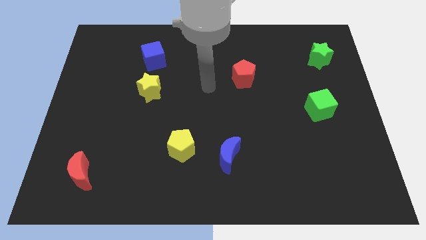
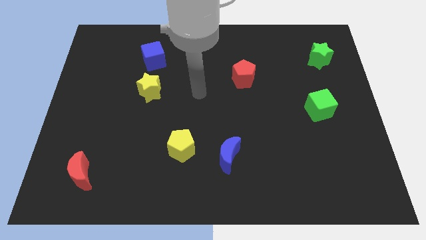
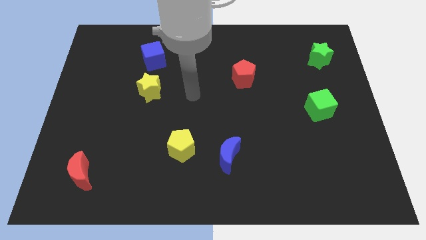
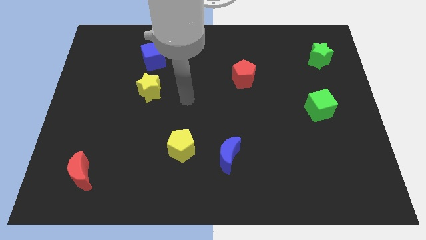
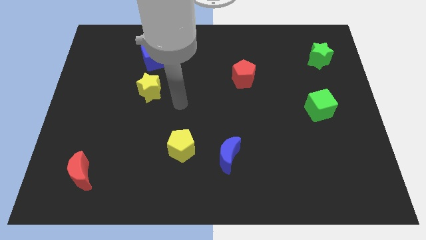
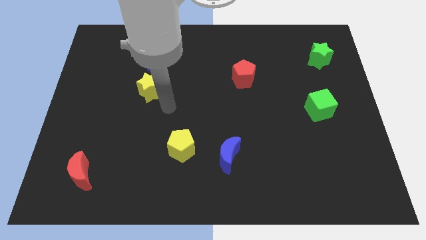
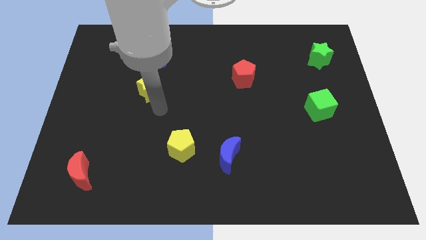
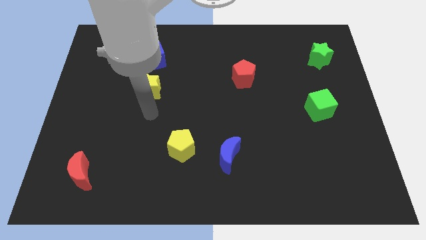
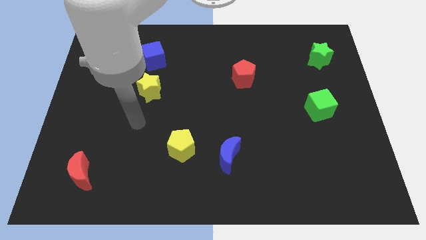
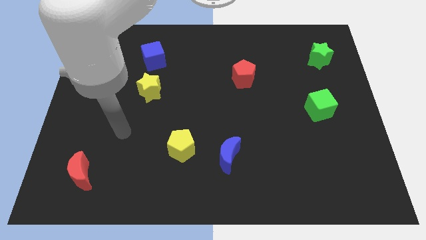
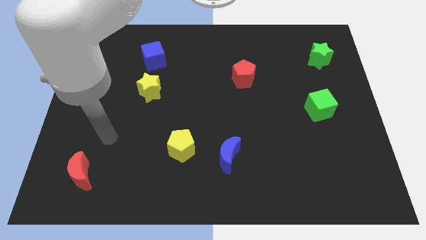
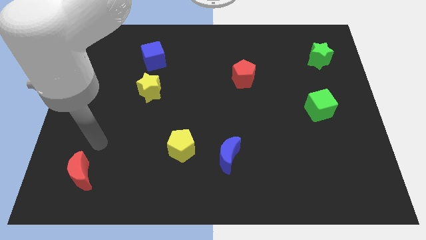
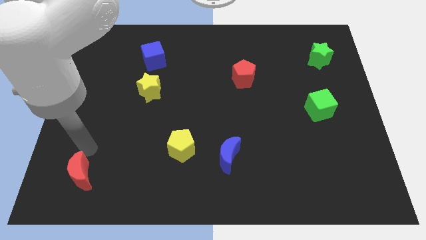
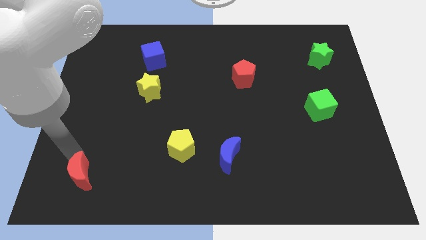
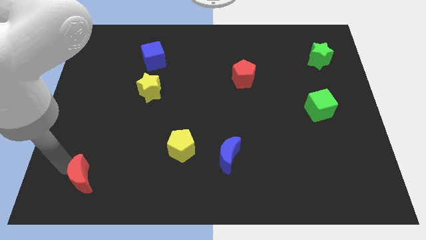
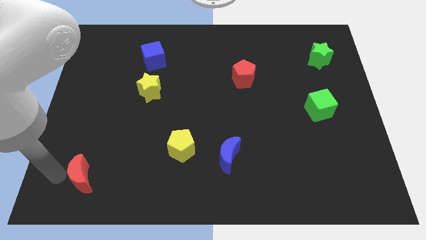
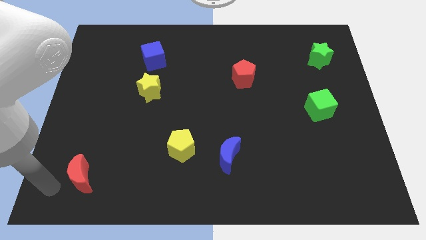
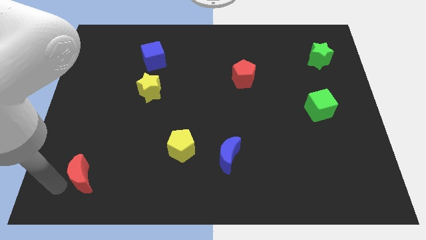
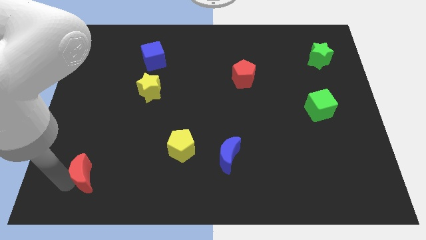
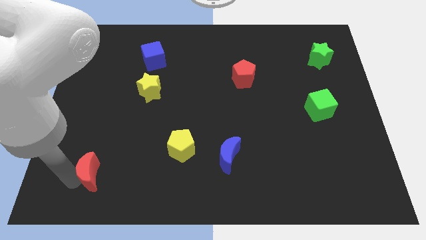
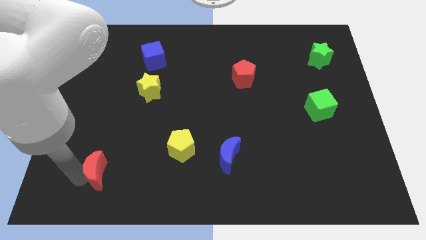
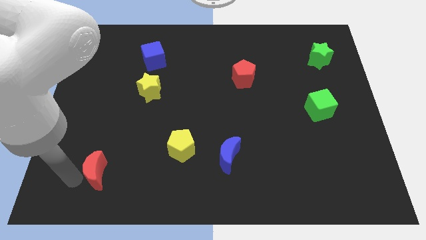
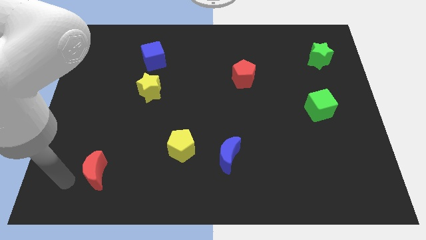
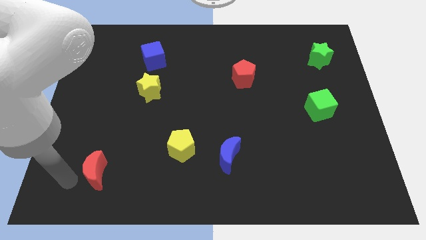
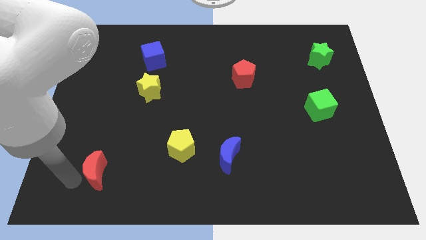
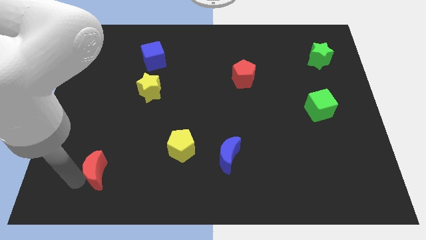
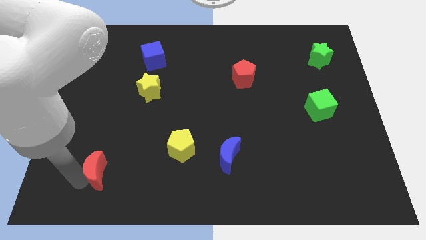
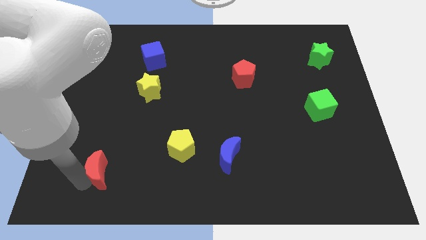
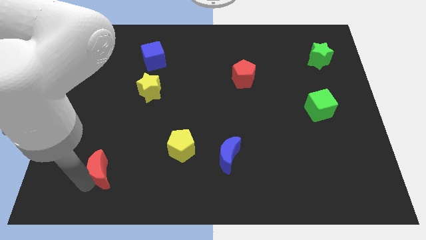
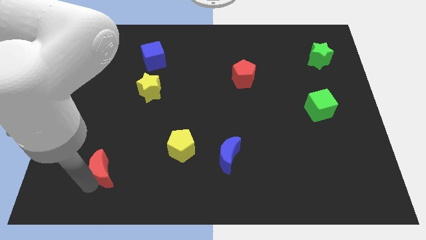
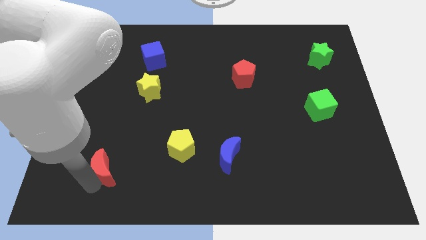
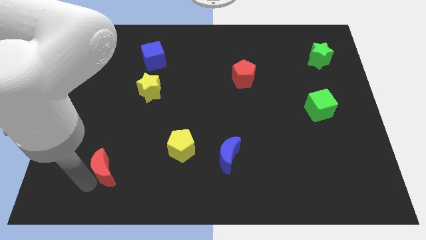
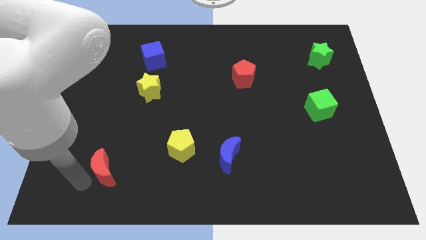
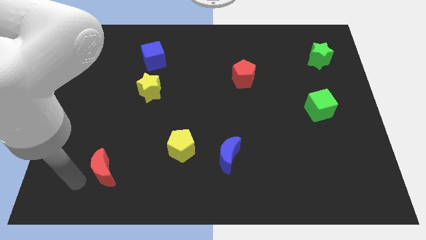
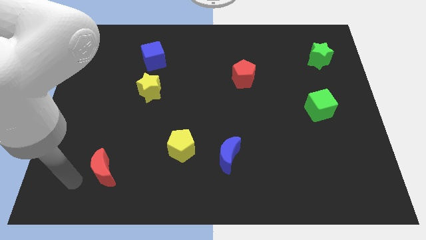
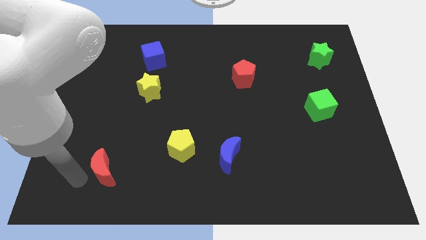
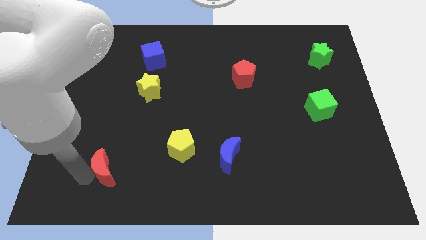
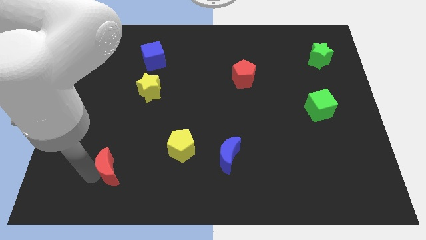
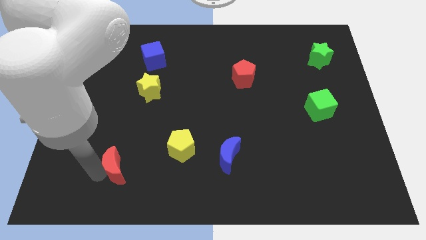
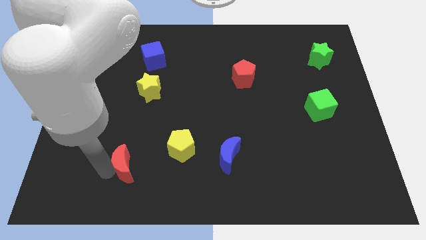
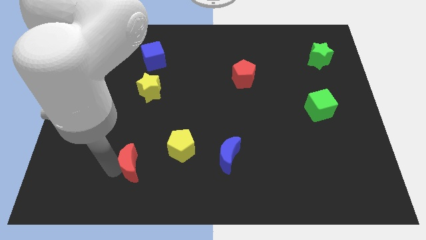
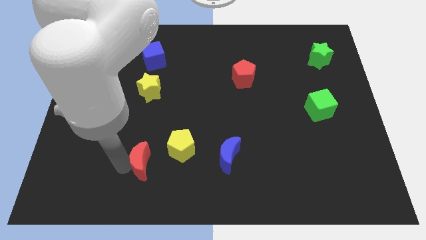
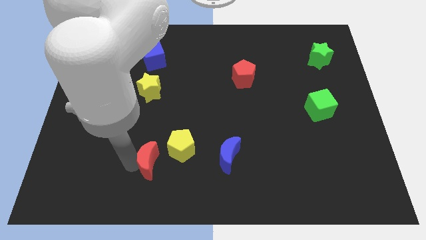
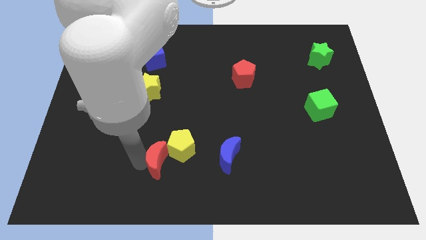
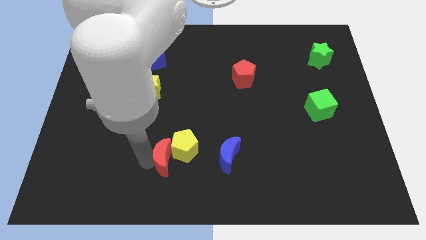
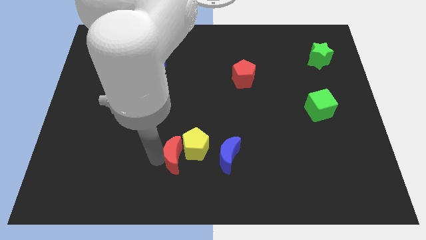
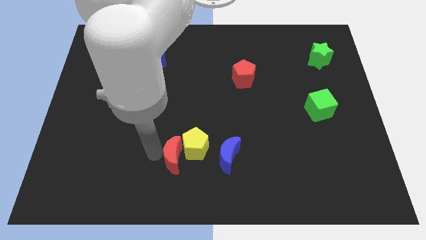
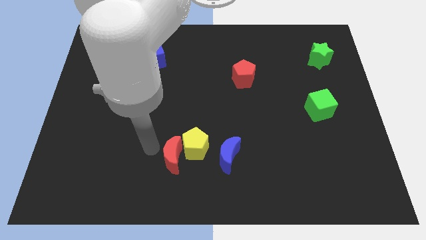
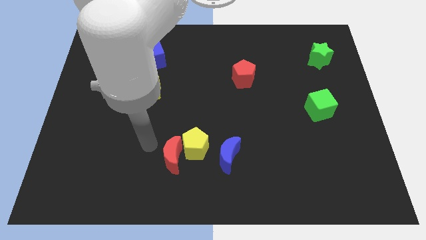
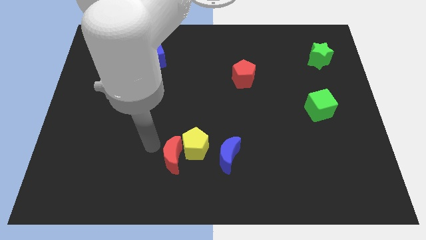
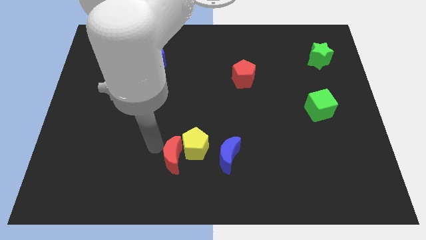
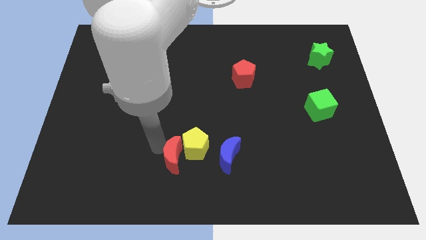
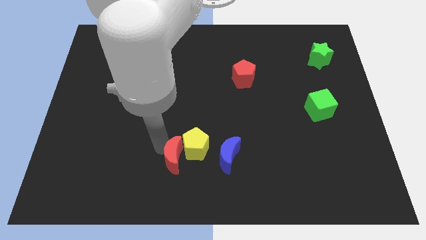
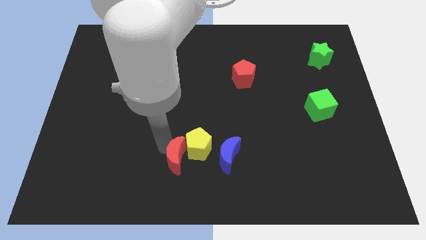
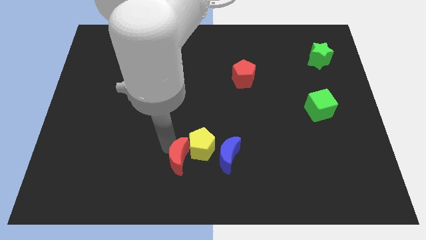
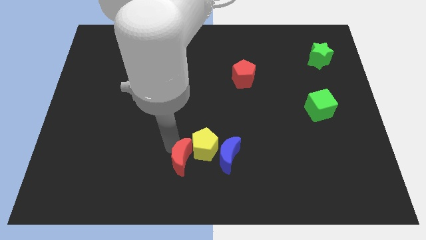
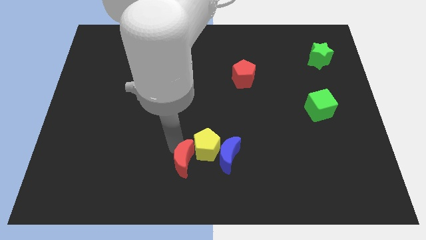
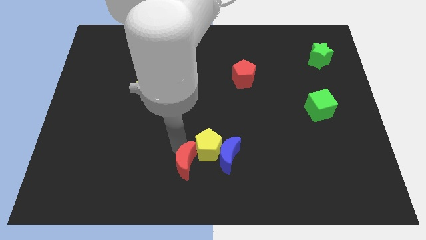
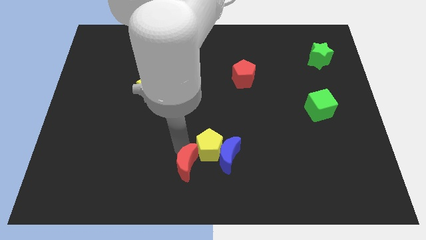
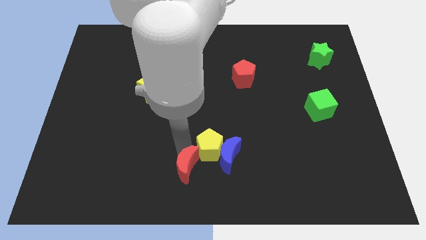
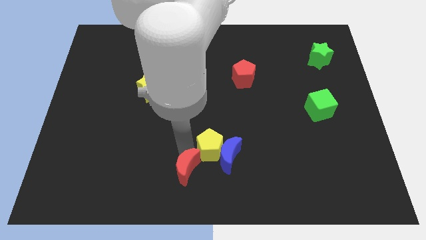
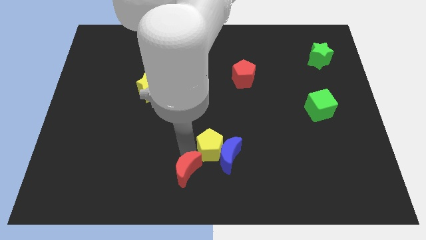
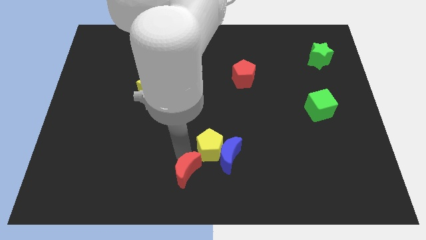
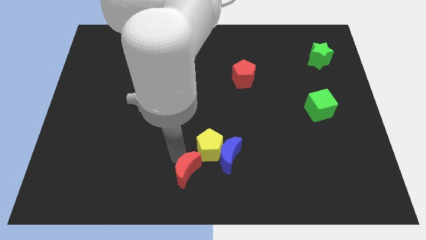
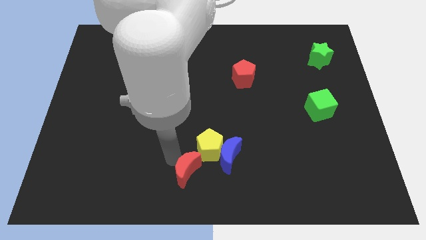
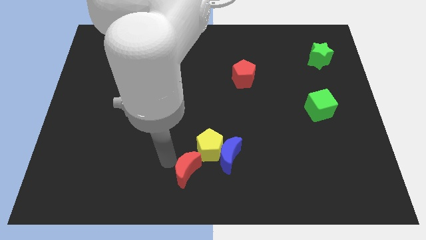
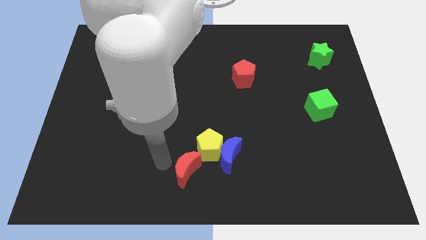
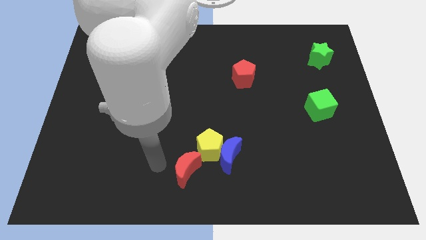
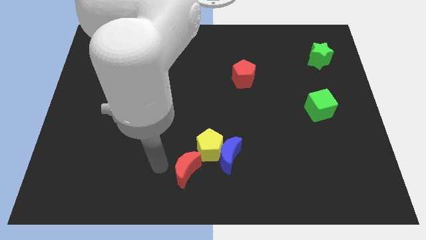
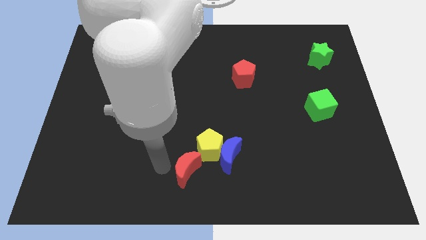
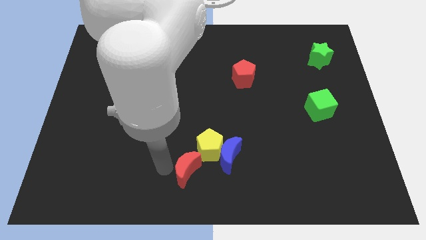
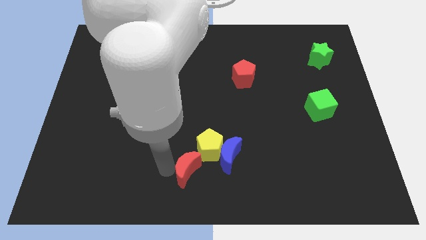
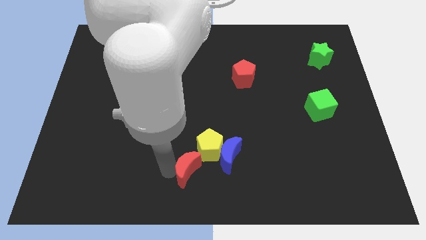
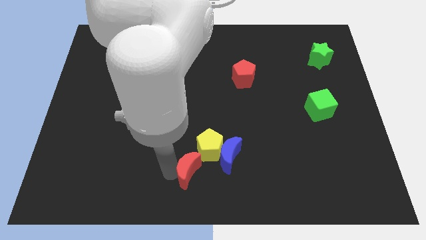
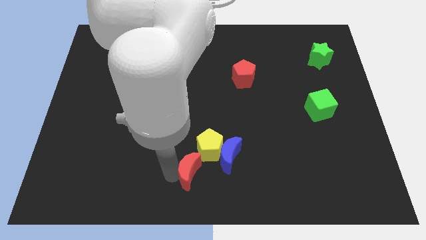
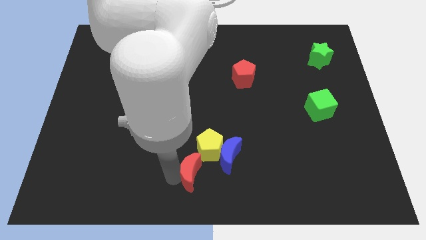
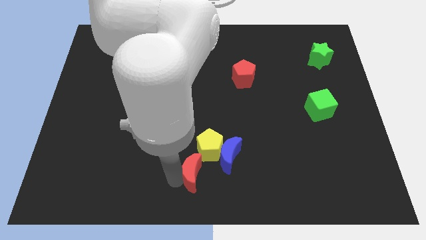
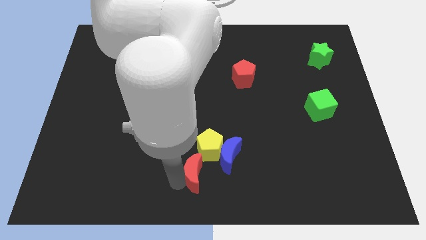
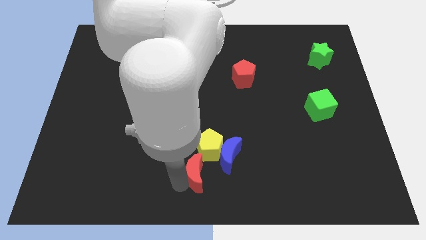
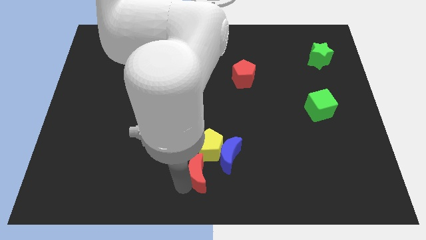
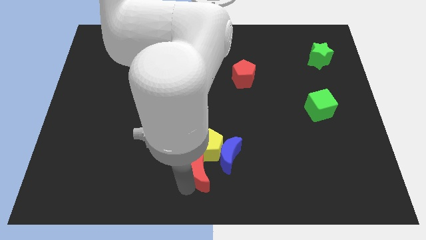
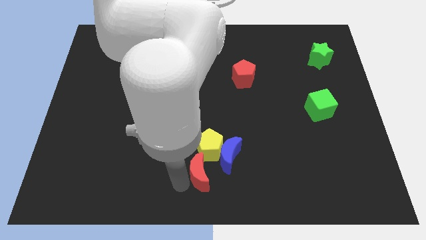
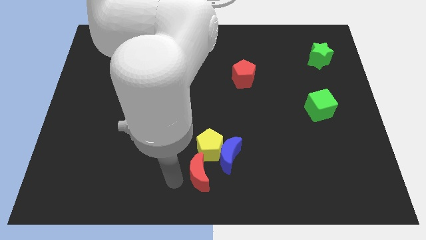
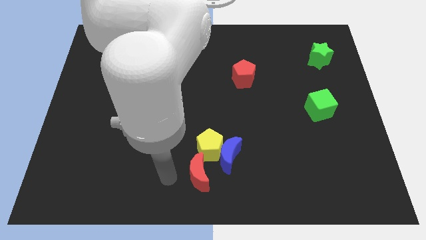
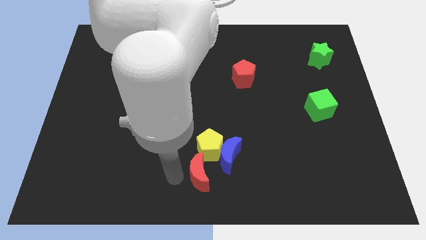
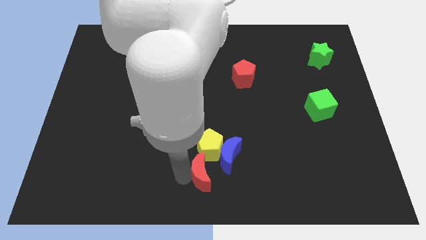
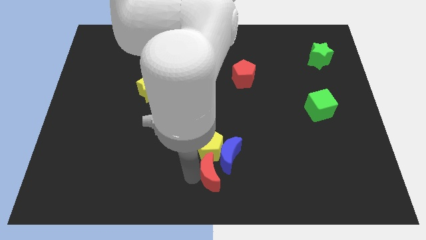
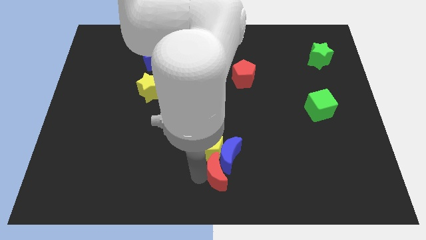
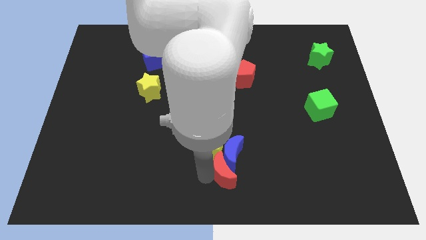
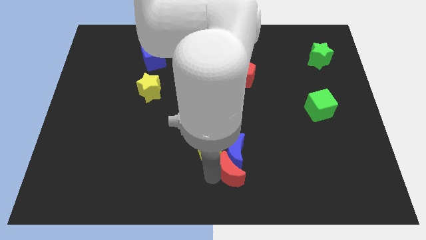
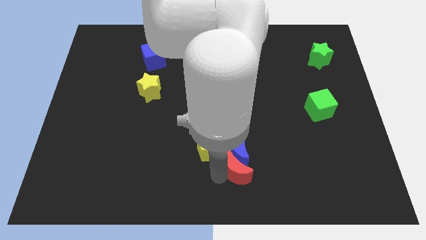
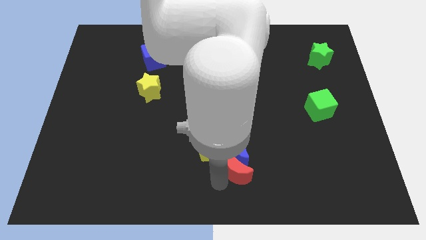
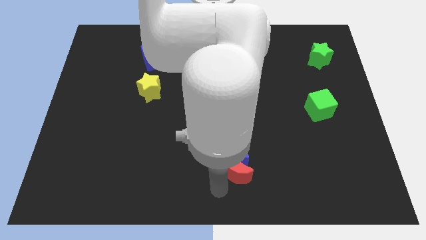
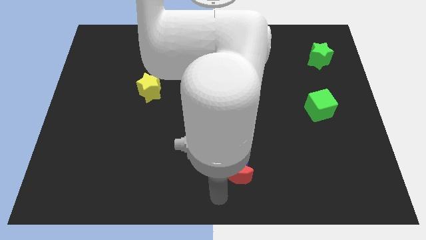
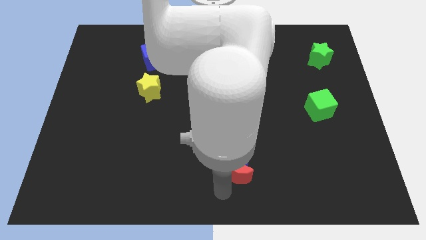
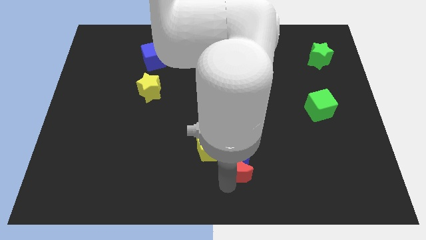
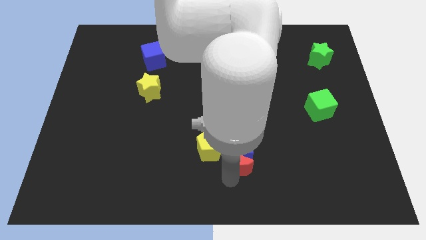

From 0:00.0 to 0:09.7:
push the red moon just right of the yellow pentagon
